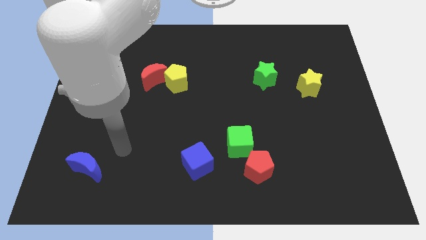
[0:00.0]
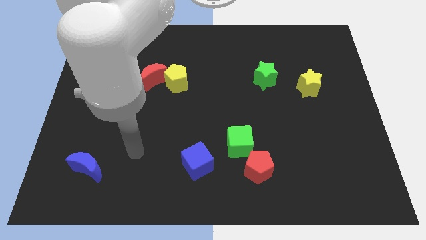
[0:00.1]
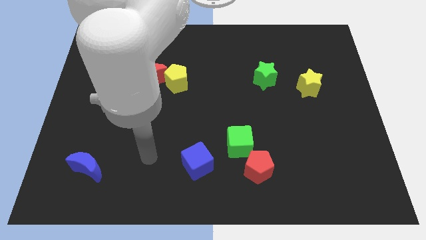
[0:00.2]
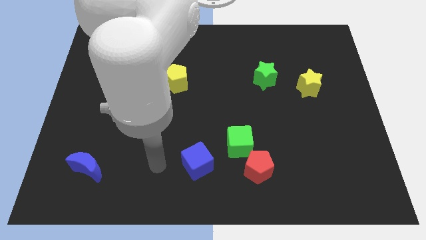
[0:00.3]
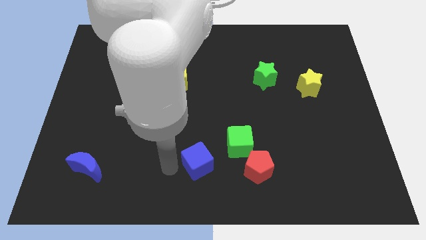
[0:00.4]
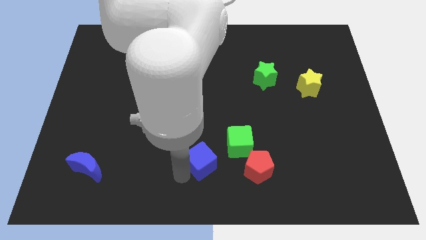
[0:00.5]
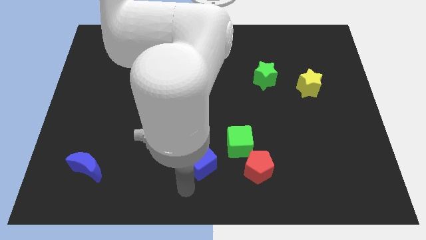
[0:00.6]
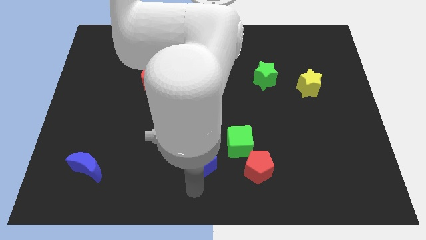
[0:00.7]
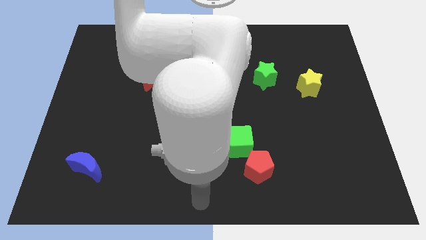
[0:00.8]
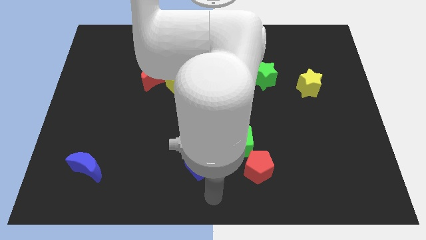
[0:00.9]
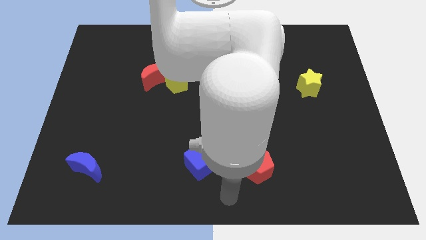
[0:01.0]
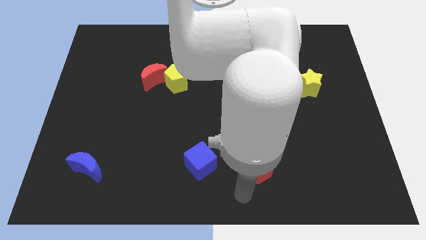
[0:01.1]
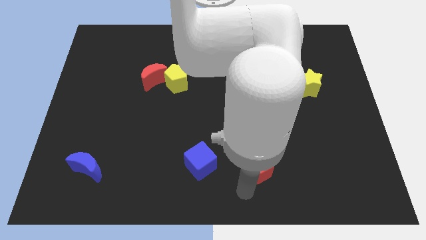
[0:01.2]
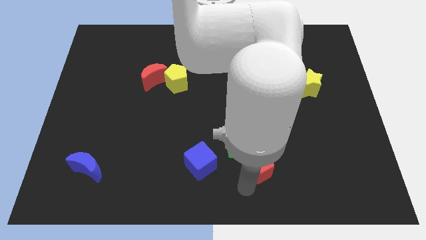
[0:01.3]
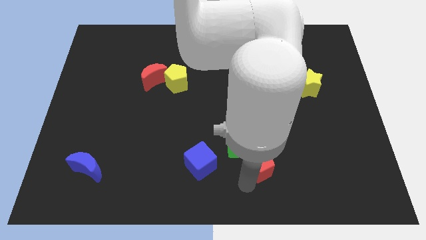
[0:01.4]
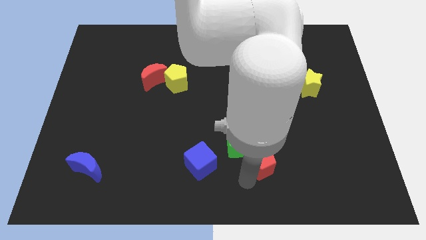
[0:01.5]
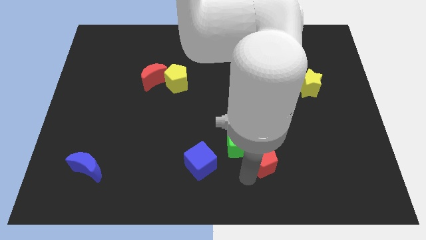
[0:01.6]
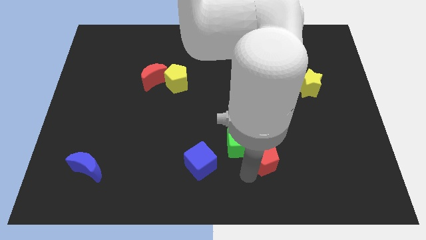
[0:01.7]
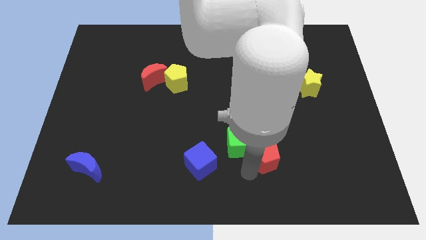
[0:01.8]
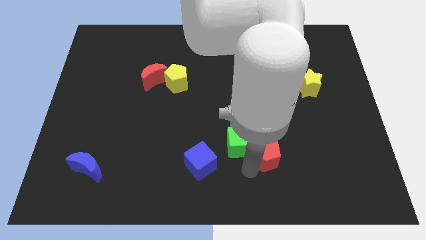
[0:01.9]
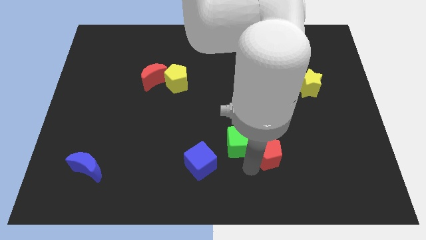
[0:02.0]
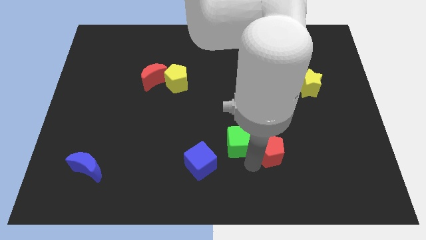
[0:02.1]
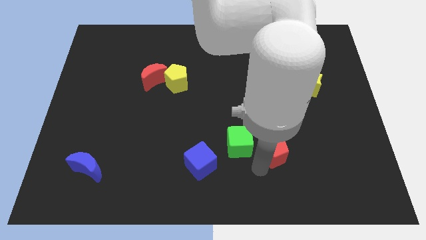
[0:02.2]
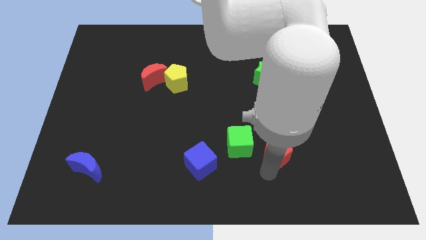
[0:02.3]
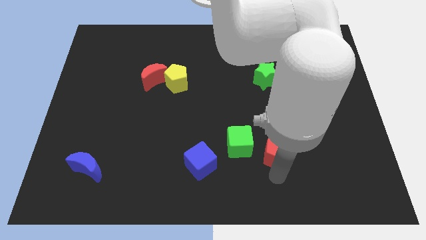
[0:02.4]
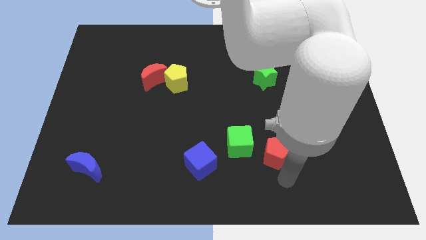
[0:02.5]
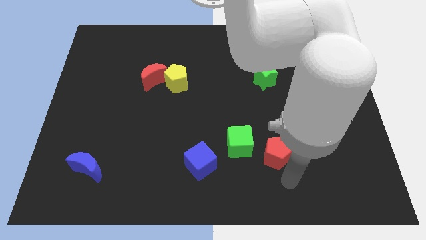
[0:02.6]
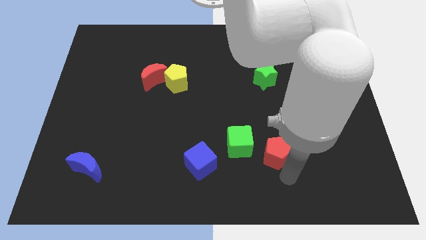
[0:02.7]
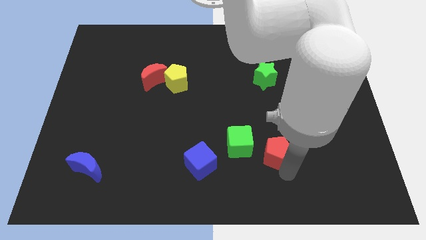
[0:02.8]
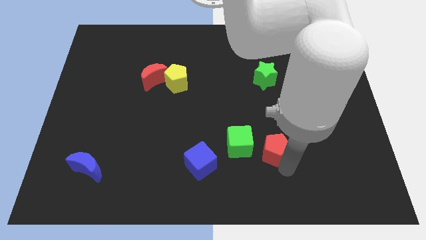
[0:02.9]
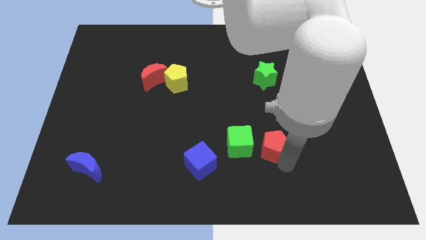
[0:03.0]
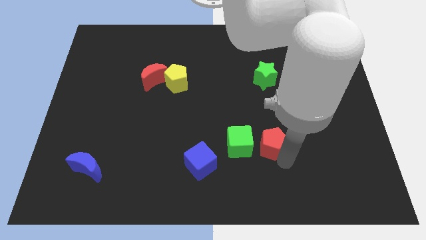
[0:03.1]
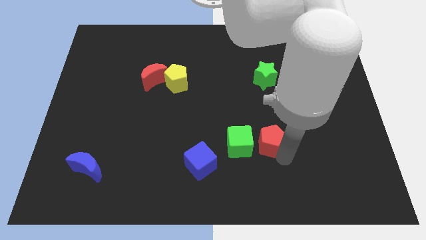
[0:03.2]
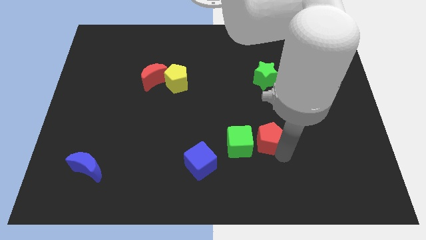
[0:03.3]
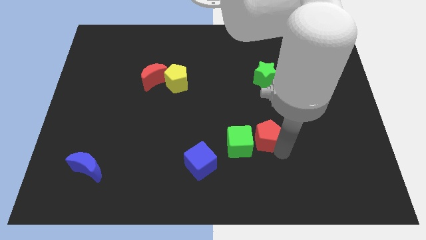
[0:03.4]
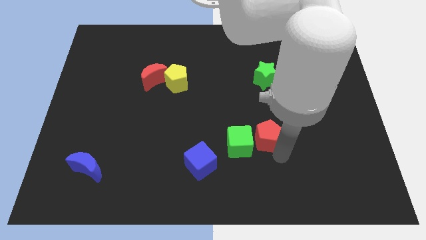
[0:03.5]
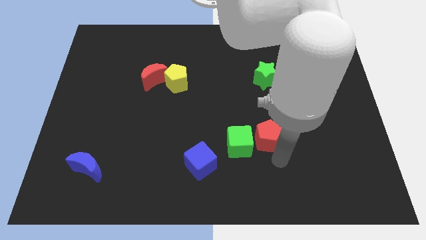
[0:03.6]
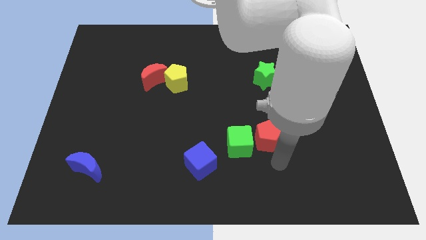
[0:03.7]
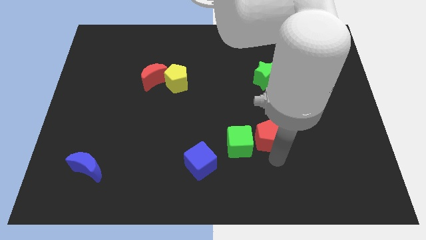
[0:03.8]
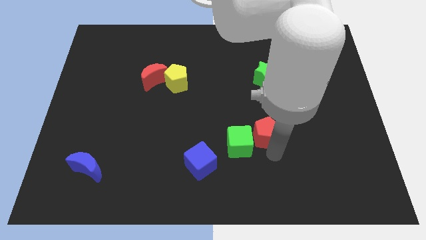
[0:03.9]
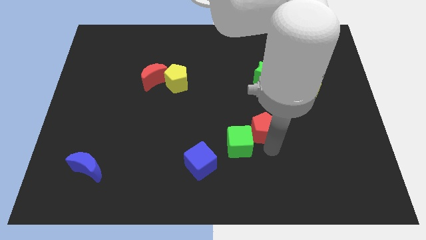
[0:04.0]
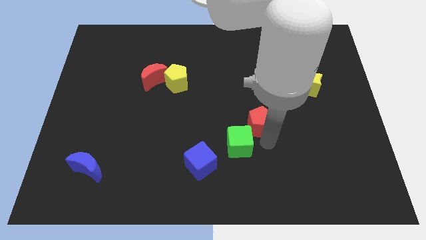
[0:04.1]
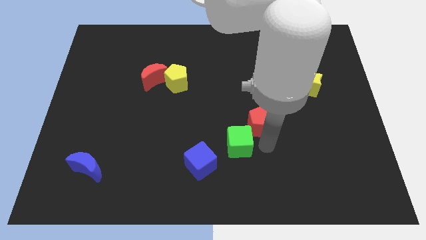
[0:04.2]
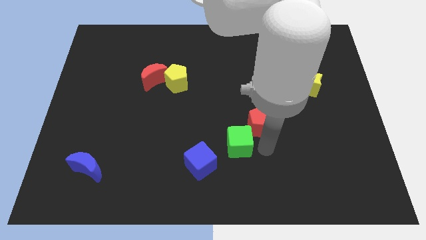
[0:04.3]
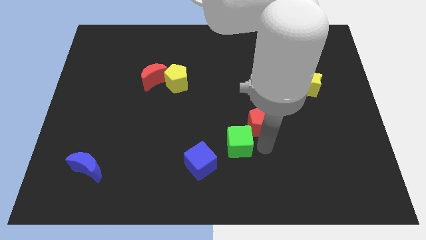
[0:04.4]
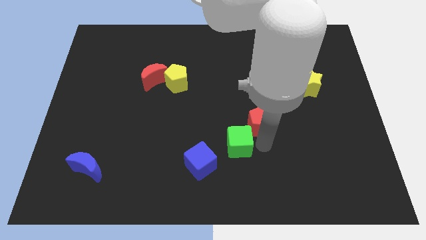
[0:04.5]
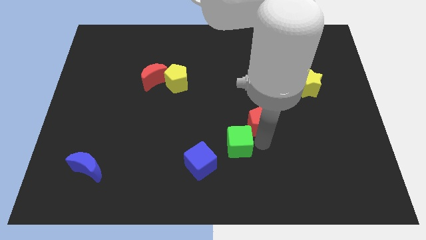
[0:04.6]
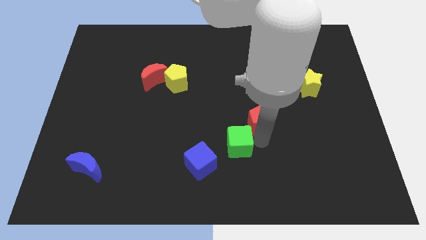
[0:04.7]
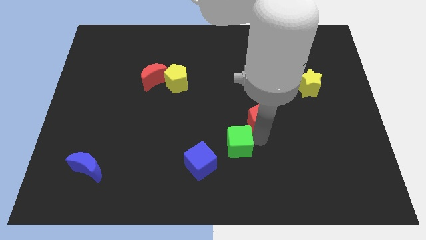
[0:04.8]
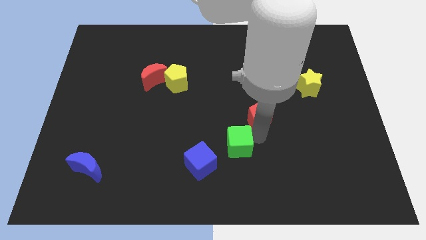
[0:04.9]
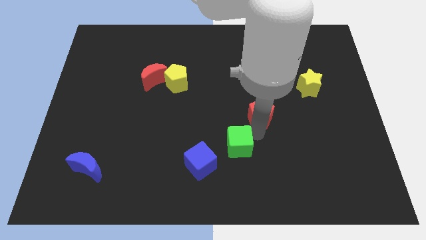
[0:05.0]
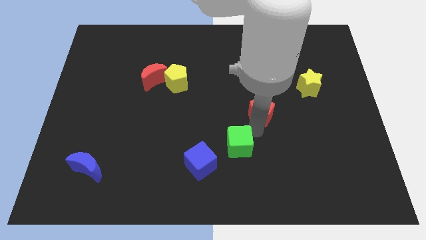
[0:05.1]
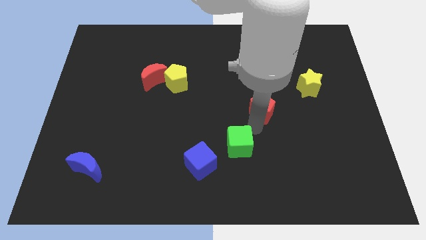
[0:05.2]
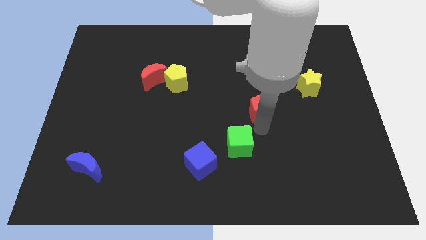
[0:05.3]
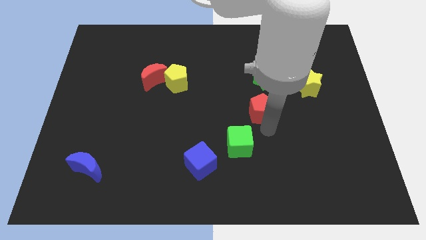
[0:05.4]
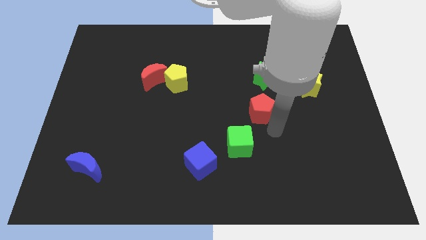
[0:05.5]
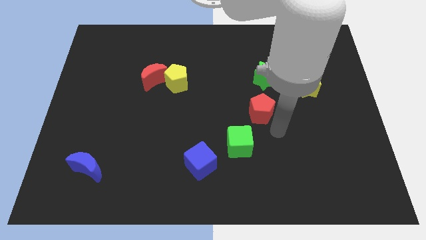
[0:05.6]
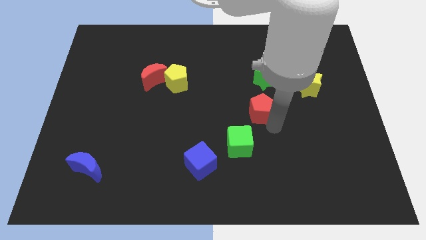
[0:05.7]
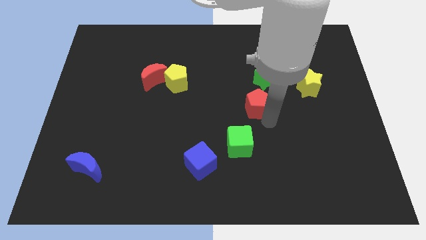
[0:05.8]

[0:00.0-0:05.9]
move the red pentagon diagonally down and to the left of the green star

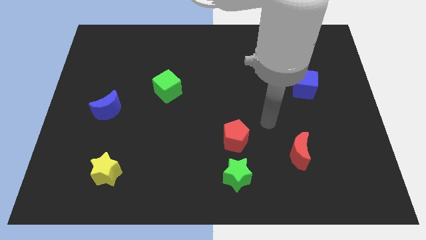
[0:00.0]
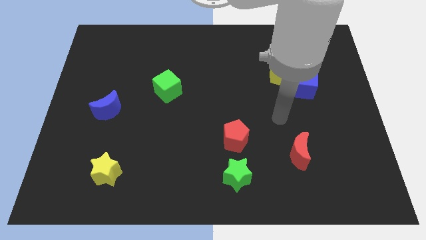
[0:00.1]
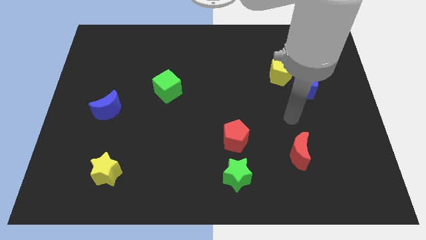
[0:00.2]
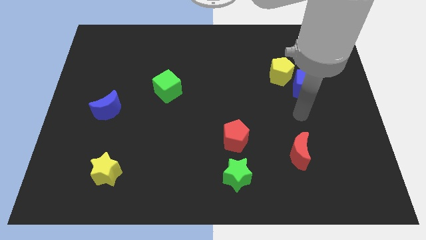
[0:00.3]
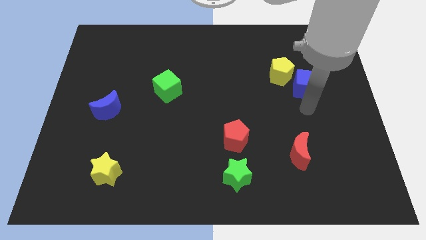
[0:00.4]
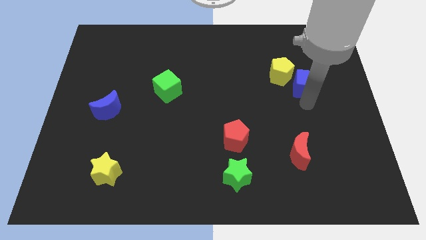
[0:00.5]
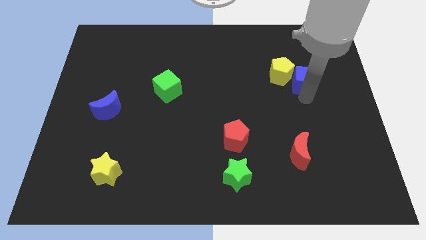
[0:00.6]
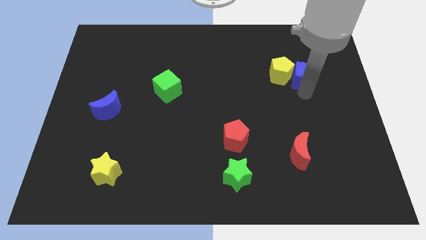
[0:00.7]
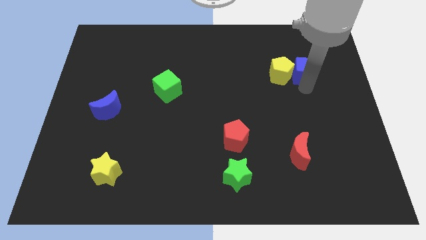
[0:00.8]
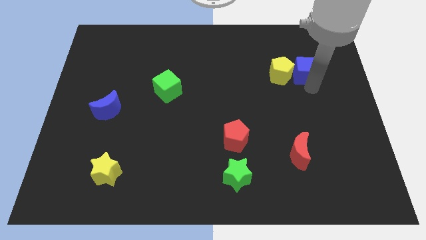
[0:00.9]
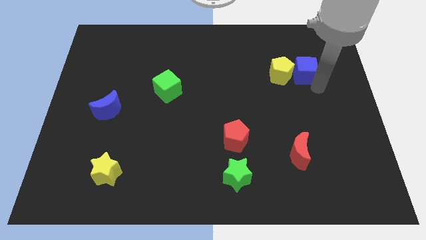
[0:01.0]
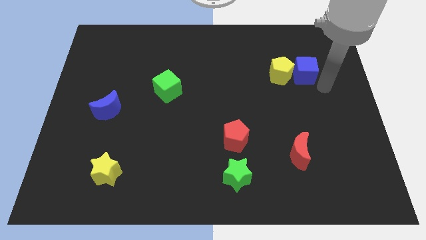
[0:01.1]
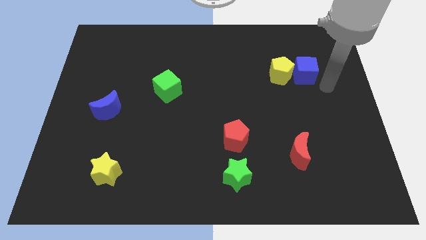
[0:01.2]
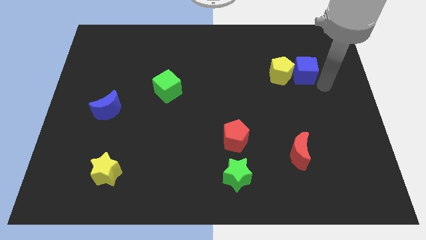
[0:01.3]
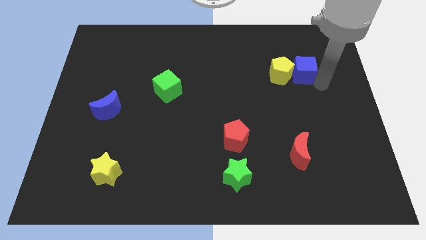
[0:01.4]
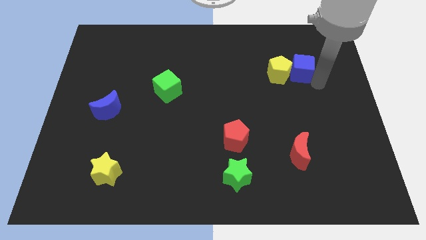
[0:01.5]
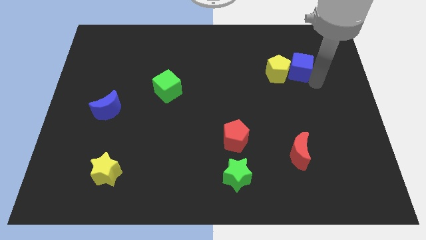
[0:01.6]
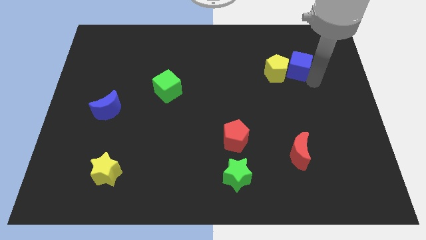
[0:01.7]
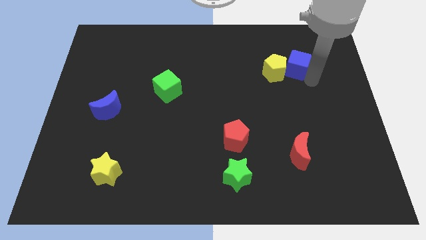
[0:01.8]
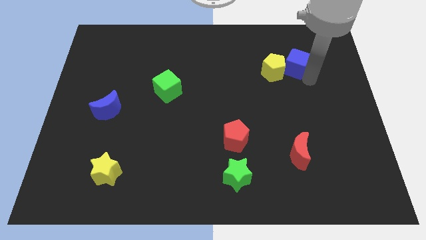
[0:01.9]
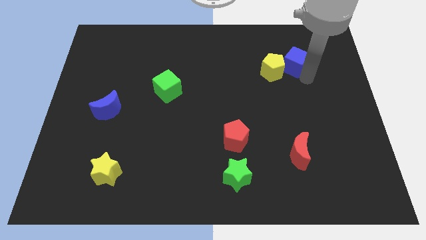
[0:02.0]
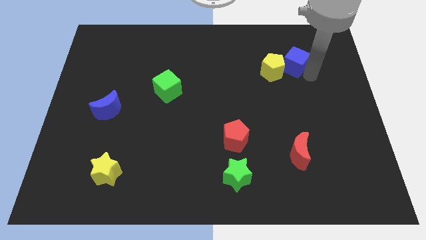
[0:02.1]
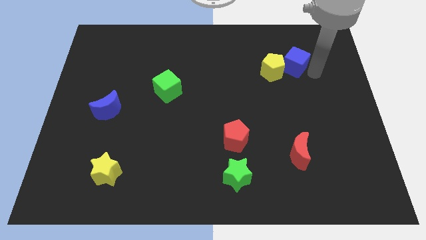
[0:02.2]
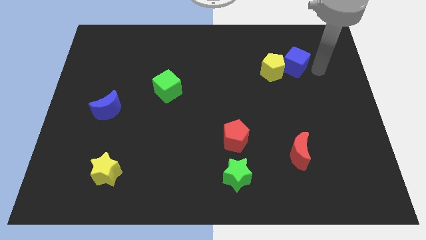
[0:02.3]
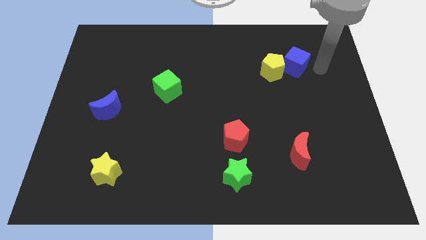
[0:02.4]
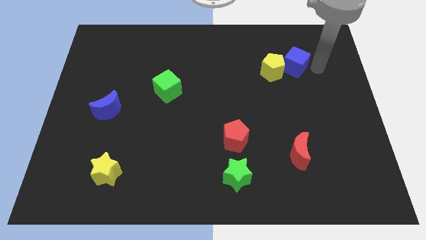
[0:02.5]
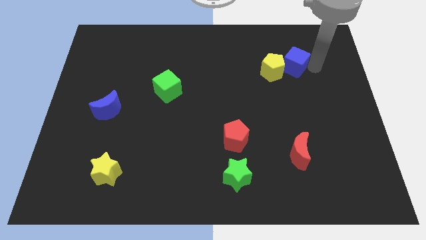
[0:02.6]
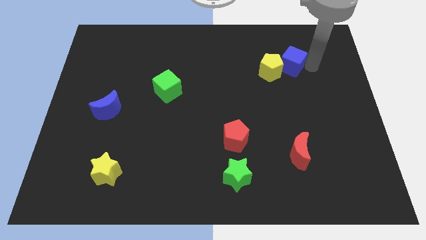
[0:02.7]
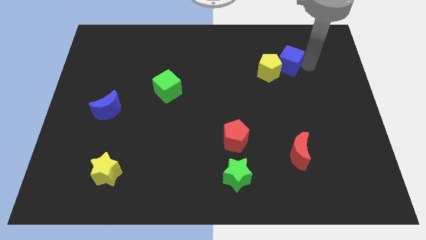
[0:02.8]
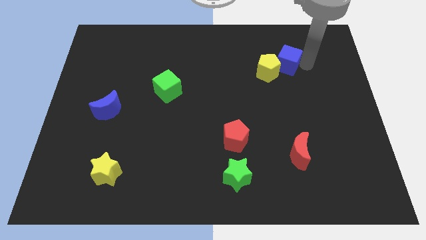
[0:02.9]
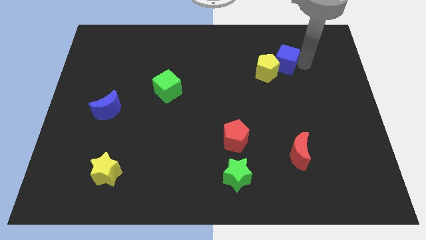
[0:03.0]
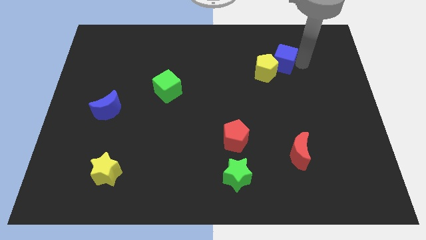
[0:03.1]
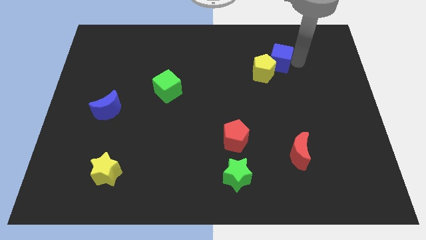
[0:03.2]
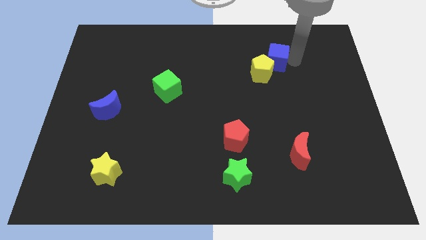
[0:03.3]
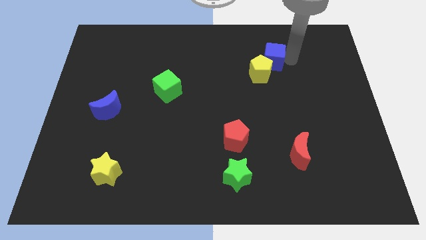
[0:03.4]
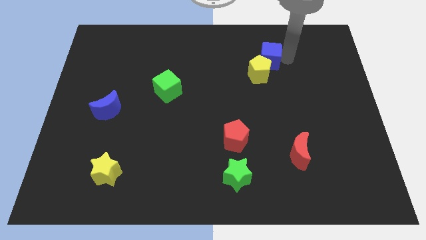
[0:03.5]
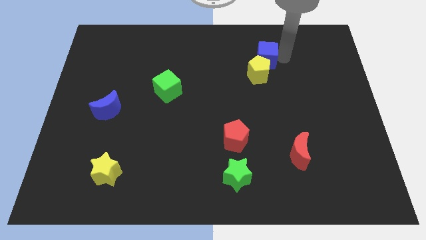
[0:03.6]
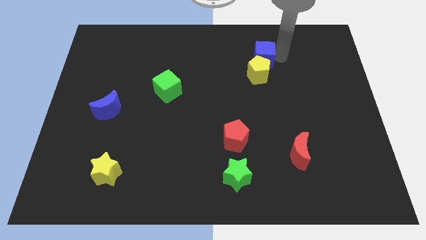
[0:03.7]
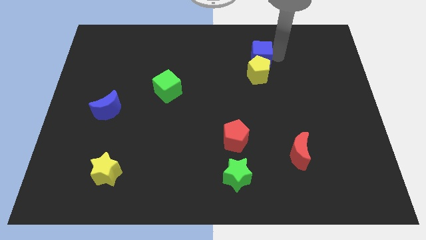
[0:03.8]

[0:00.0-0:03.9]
slide the blue cube to the top left of the yellow pentagon
